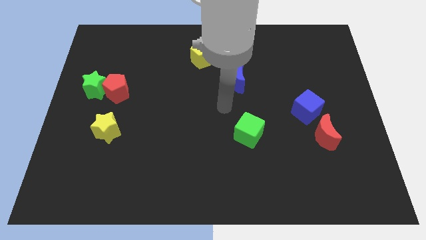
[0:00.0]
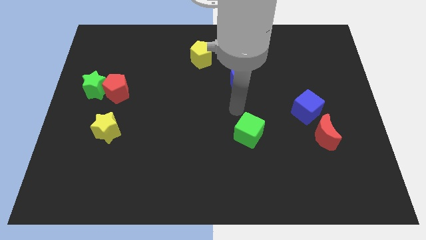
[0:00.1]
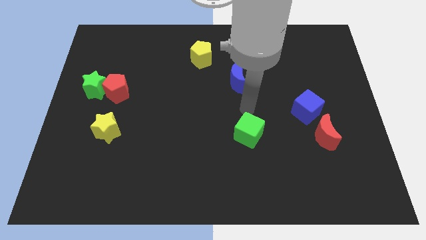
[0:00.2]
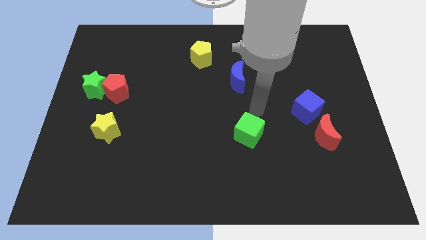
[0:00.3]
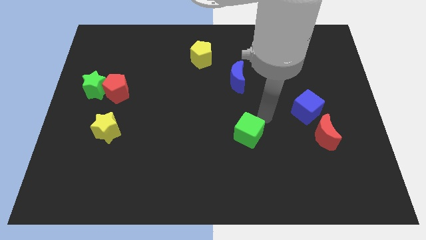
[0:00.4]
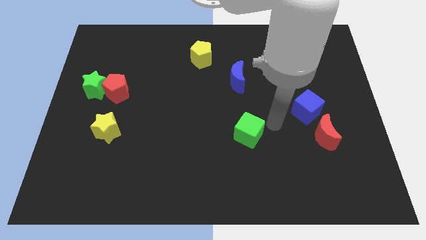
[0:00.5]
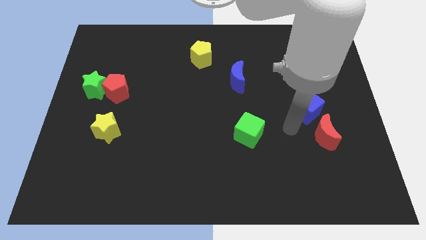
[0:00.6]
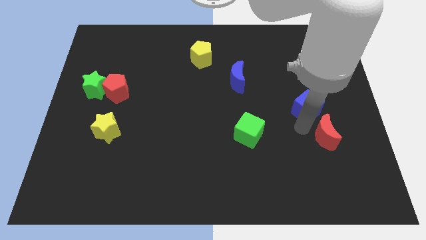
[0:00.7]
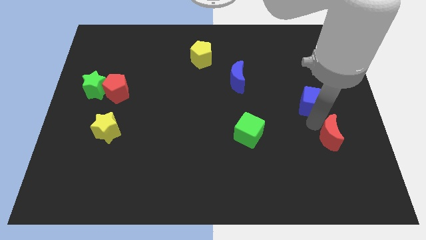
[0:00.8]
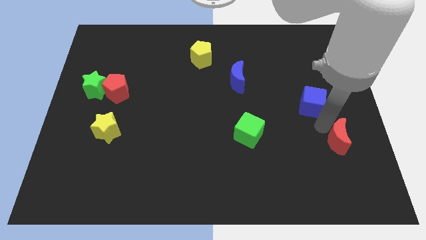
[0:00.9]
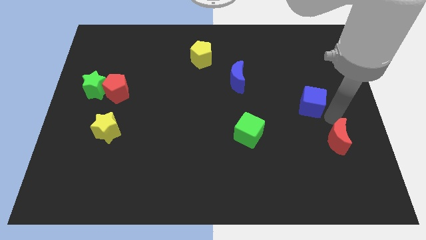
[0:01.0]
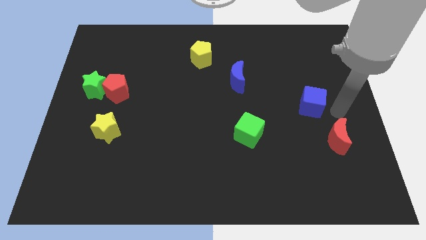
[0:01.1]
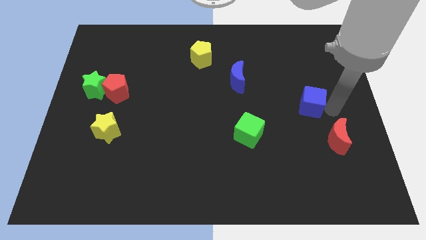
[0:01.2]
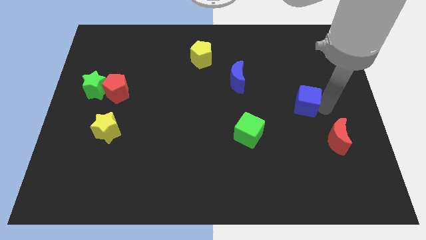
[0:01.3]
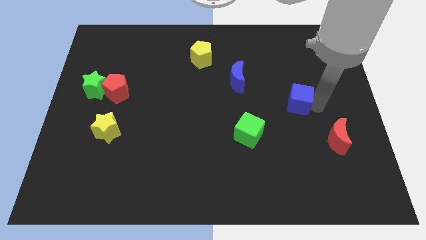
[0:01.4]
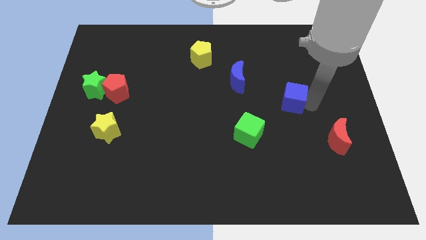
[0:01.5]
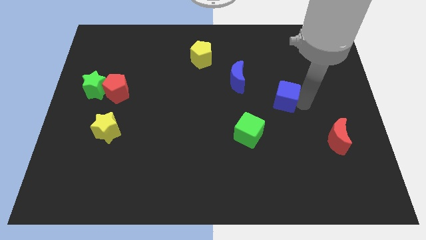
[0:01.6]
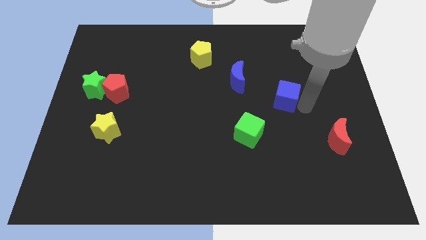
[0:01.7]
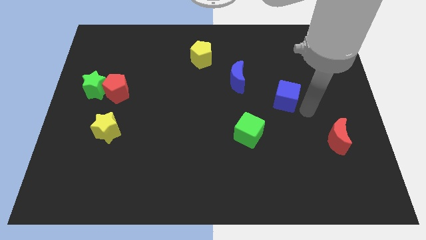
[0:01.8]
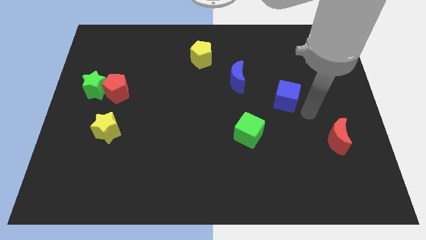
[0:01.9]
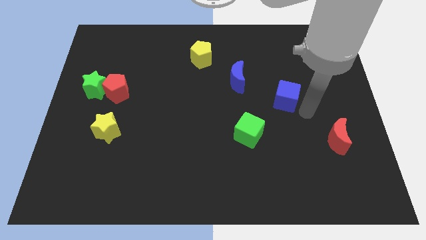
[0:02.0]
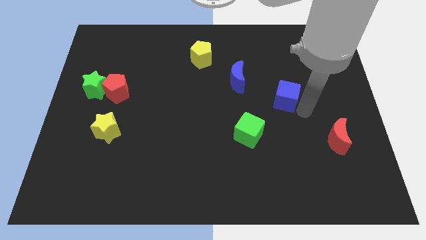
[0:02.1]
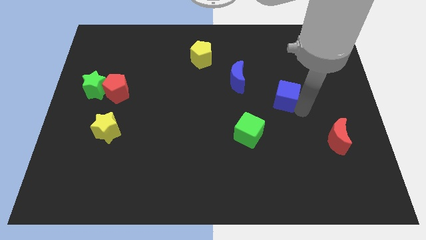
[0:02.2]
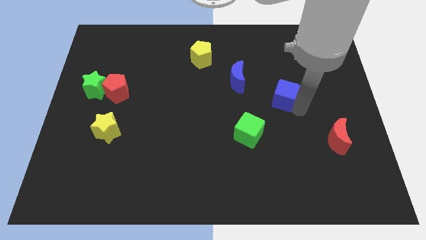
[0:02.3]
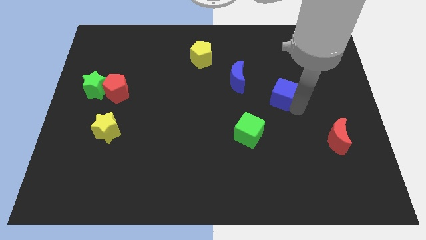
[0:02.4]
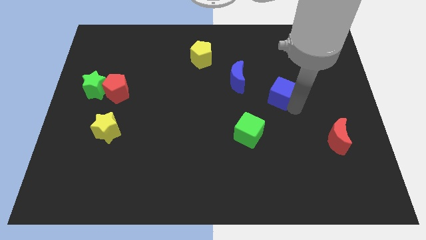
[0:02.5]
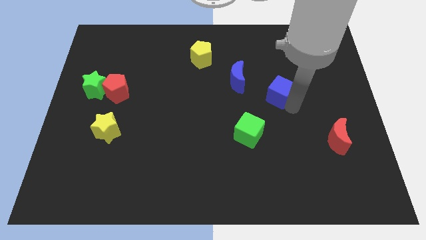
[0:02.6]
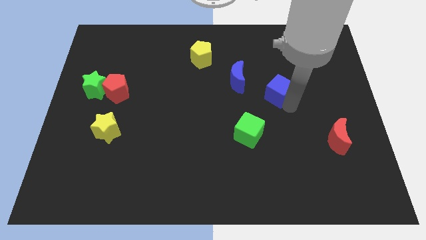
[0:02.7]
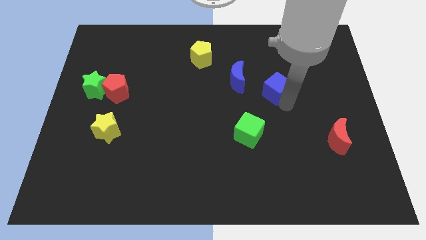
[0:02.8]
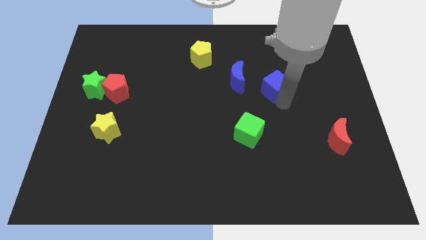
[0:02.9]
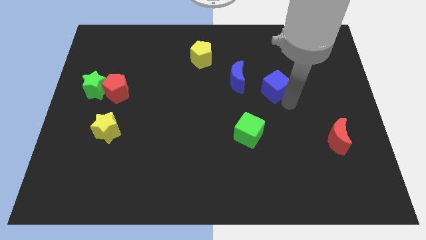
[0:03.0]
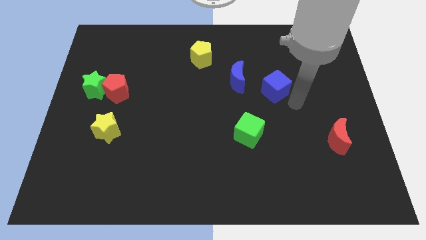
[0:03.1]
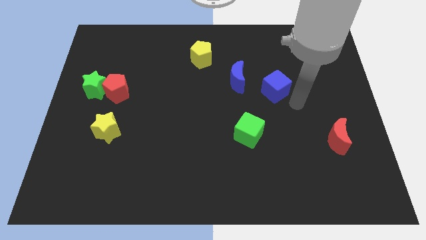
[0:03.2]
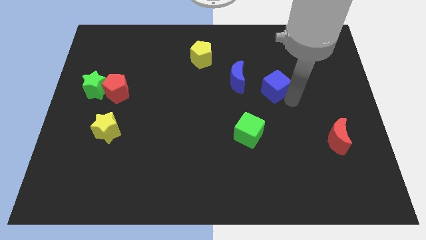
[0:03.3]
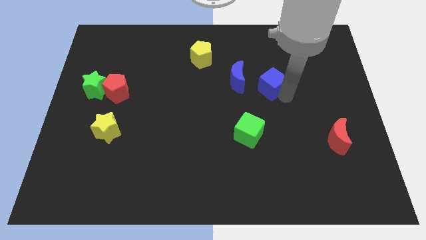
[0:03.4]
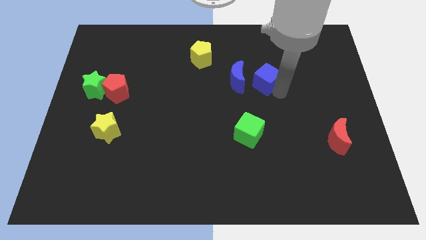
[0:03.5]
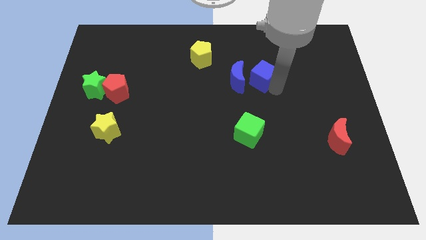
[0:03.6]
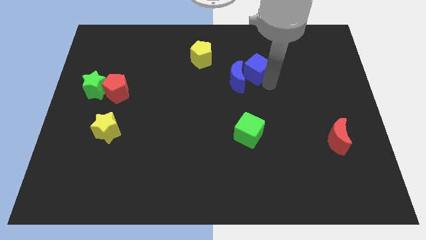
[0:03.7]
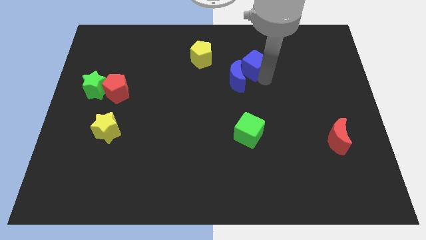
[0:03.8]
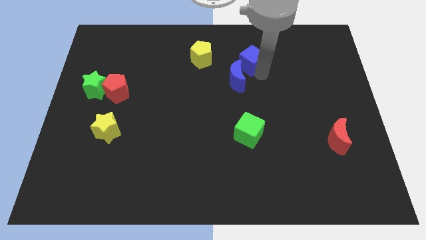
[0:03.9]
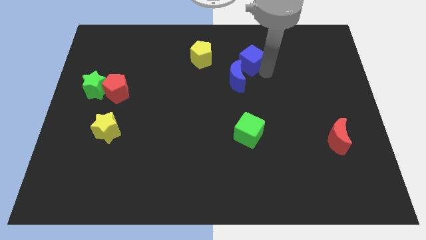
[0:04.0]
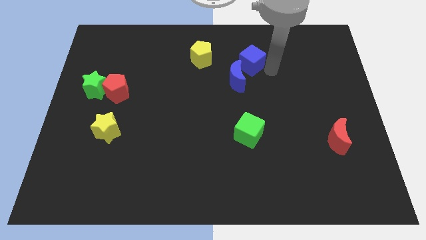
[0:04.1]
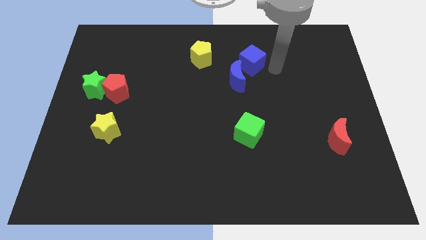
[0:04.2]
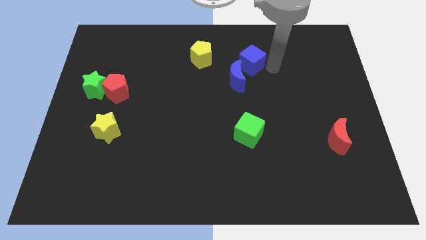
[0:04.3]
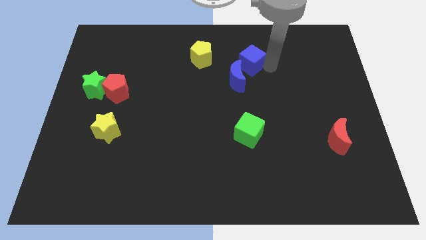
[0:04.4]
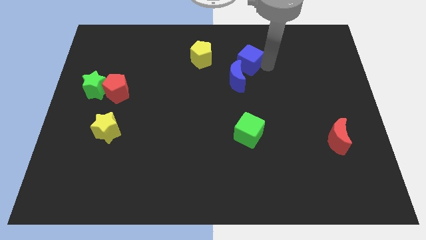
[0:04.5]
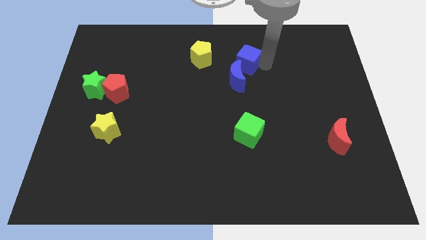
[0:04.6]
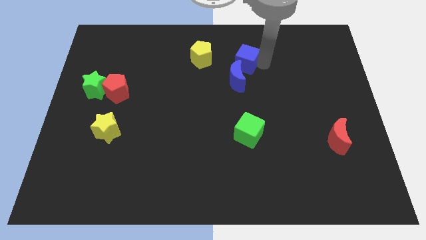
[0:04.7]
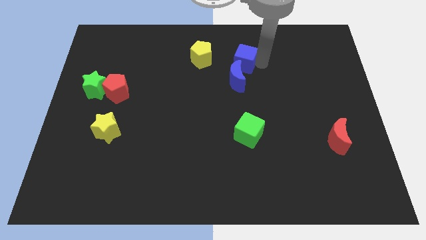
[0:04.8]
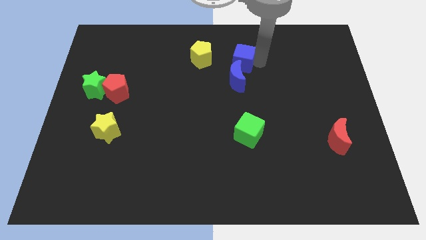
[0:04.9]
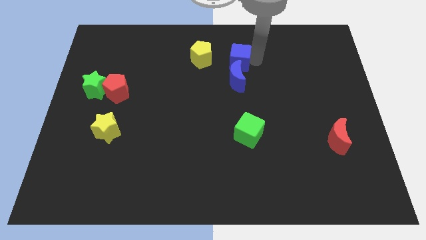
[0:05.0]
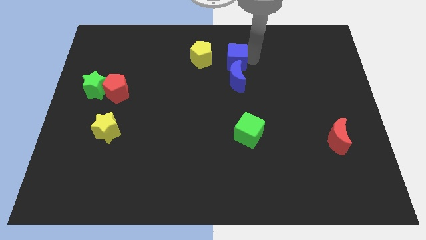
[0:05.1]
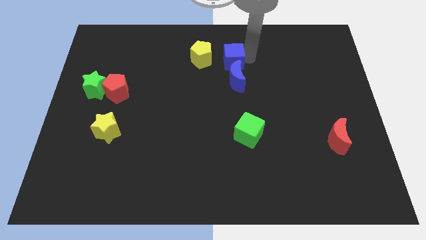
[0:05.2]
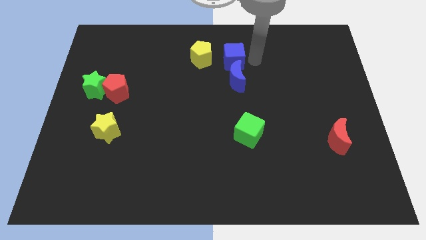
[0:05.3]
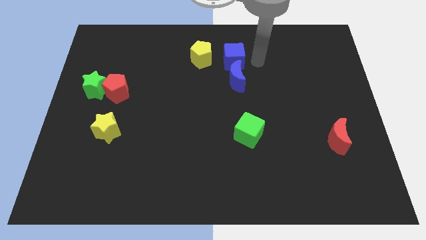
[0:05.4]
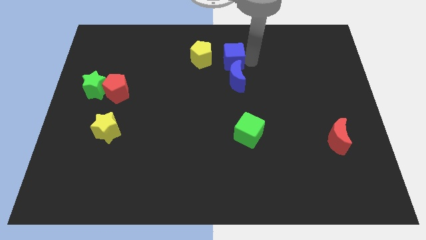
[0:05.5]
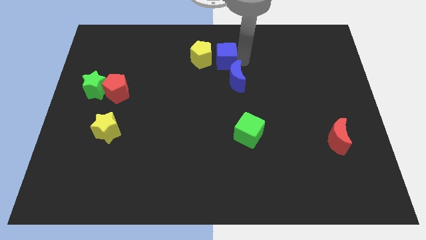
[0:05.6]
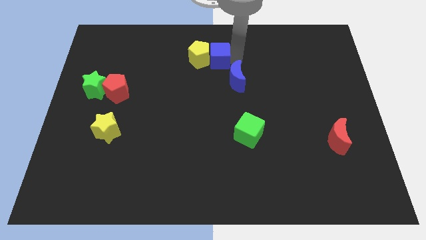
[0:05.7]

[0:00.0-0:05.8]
put the blue cube towards the yellow pentagon
